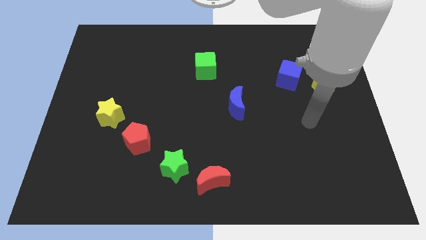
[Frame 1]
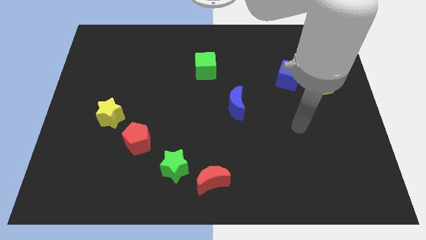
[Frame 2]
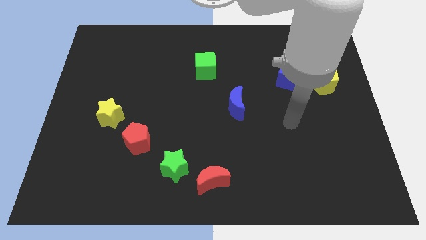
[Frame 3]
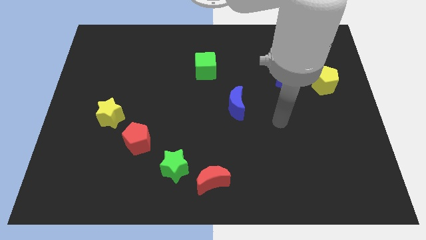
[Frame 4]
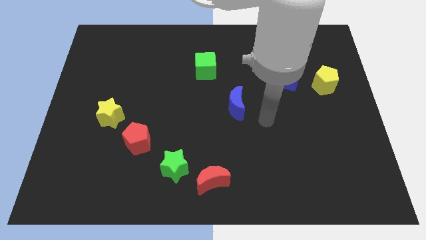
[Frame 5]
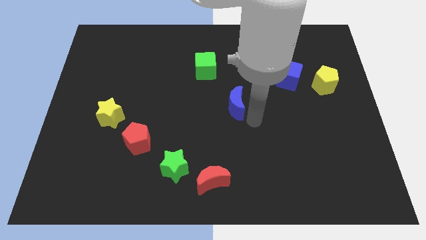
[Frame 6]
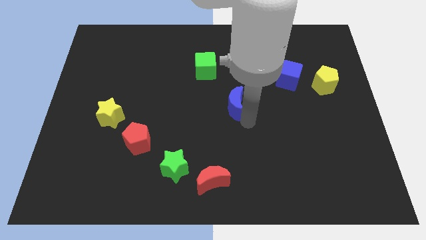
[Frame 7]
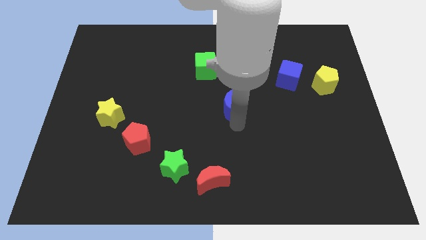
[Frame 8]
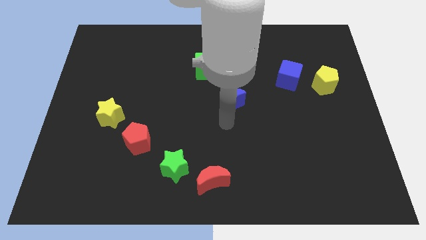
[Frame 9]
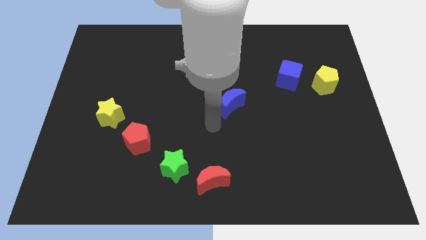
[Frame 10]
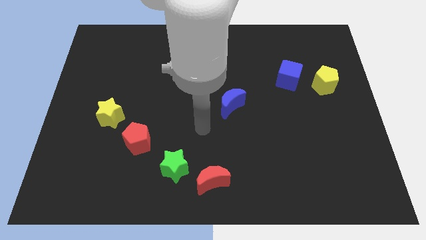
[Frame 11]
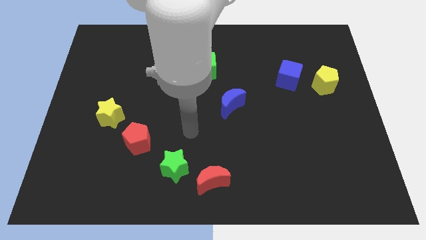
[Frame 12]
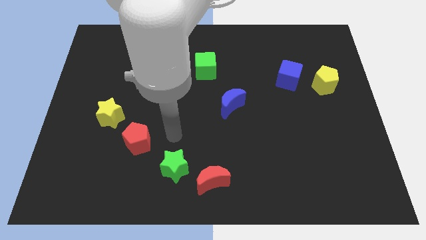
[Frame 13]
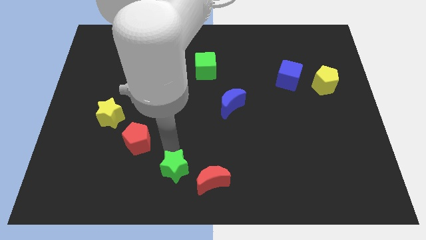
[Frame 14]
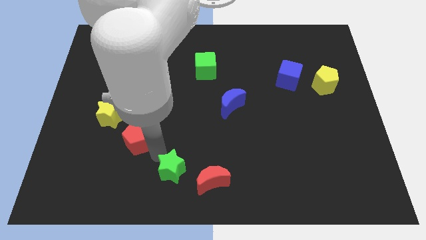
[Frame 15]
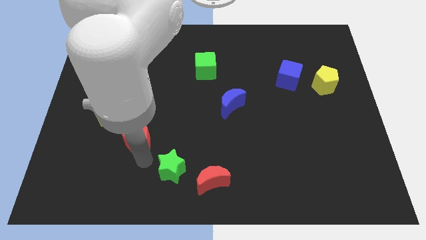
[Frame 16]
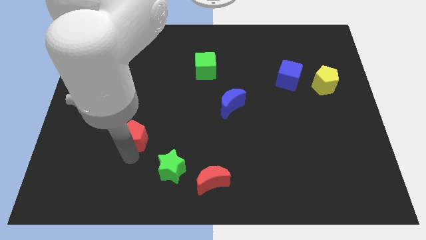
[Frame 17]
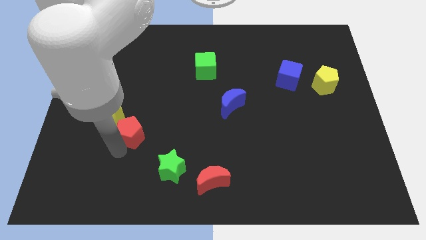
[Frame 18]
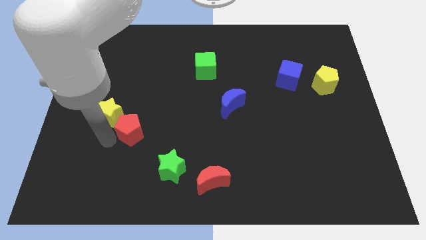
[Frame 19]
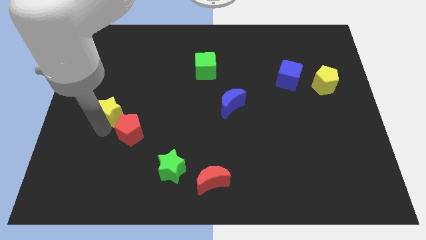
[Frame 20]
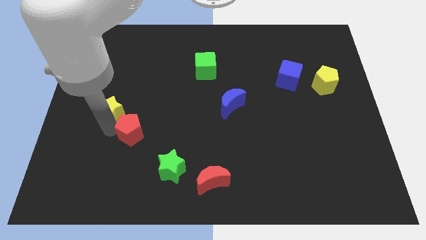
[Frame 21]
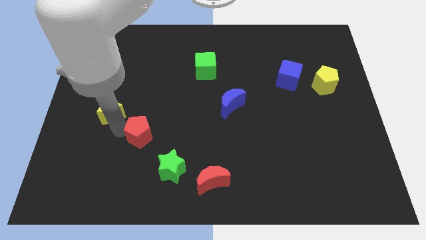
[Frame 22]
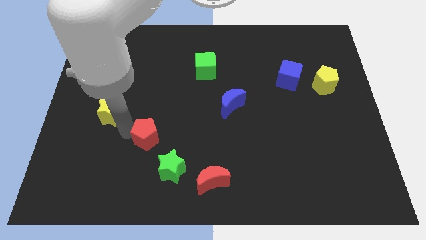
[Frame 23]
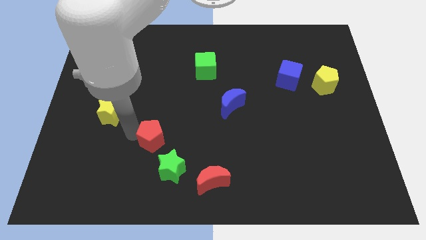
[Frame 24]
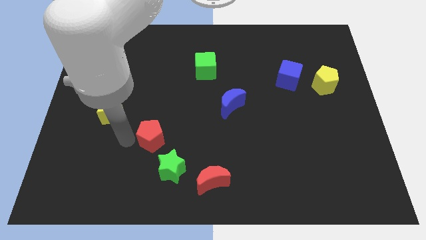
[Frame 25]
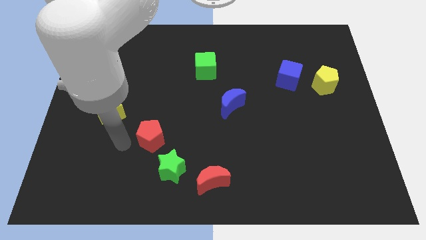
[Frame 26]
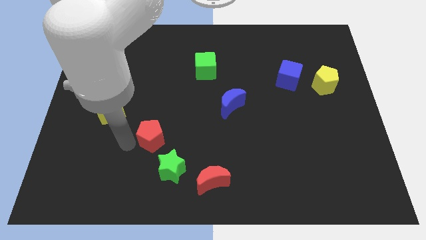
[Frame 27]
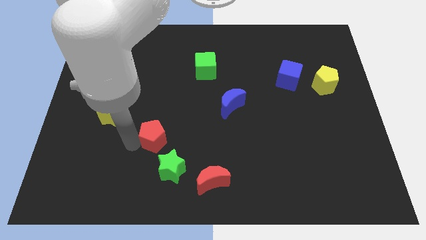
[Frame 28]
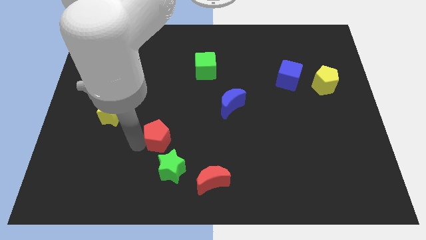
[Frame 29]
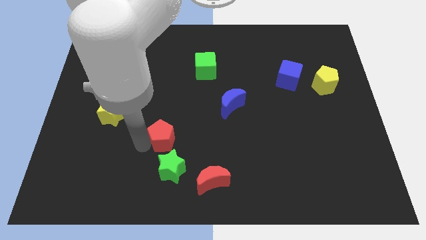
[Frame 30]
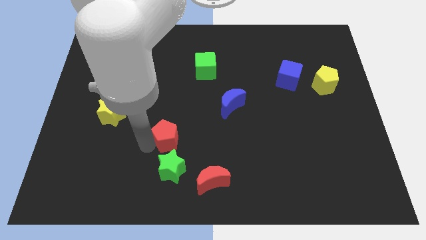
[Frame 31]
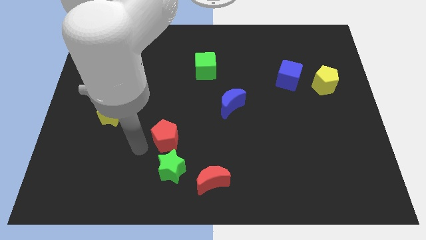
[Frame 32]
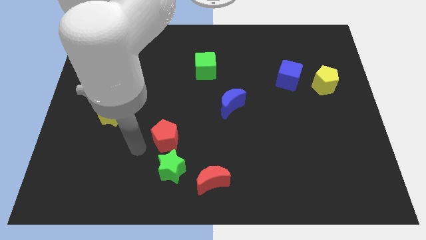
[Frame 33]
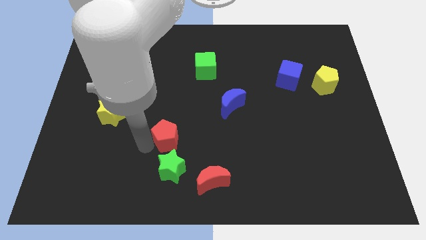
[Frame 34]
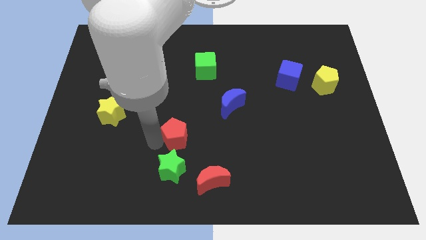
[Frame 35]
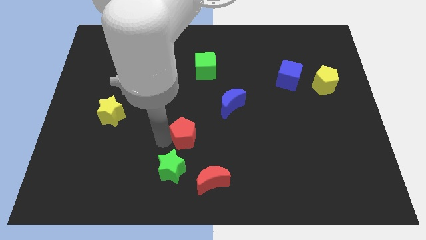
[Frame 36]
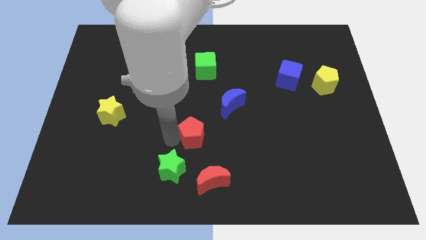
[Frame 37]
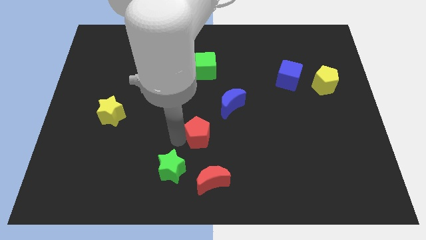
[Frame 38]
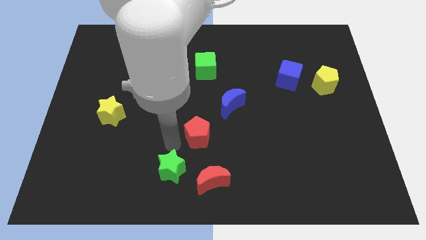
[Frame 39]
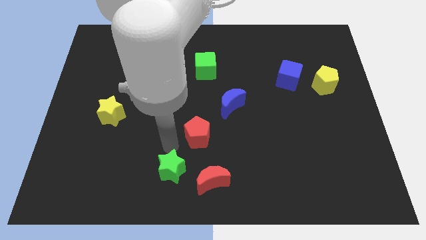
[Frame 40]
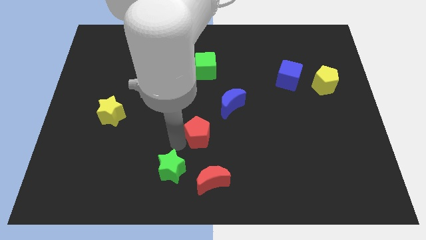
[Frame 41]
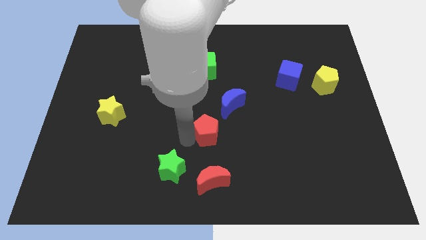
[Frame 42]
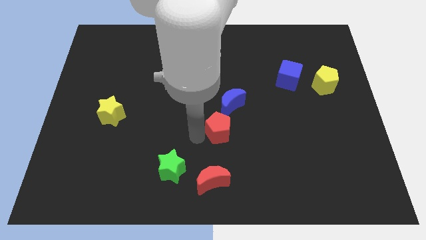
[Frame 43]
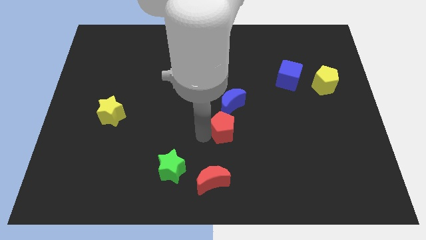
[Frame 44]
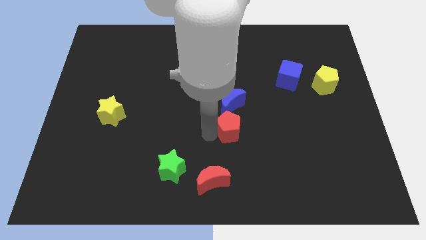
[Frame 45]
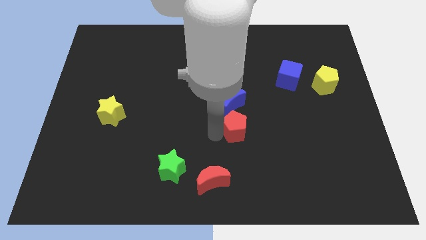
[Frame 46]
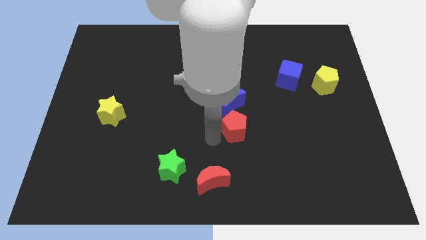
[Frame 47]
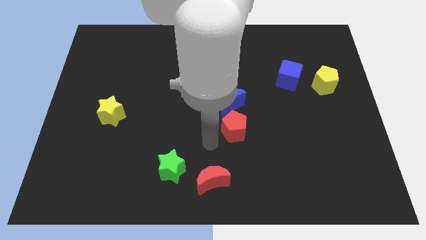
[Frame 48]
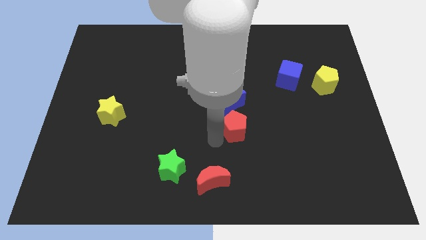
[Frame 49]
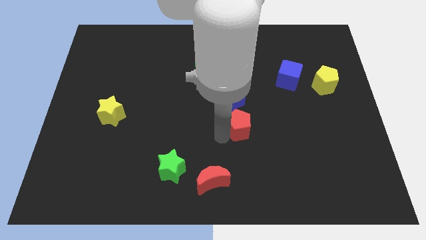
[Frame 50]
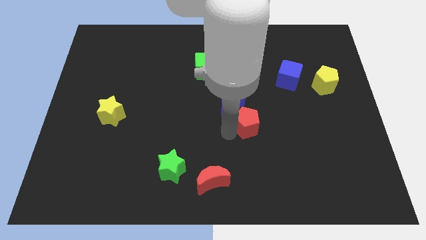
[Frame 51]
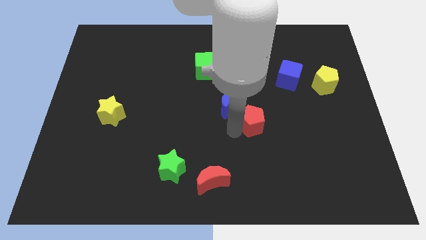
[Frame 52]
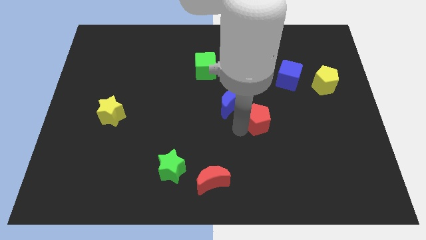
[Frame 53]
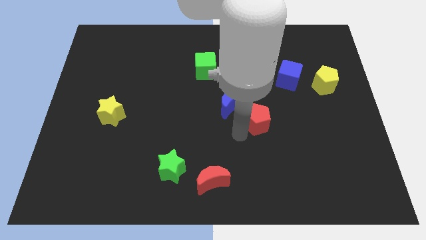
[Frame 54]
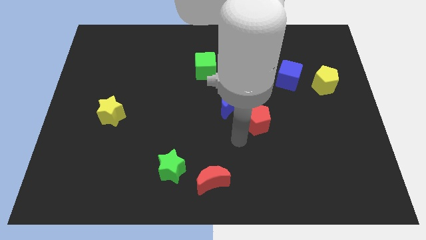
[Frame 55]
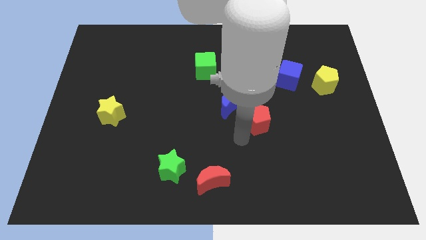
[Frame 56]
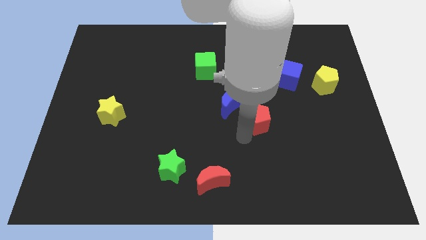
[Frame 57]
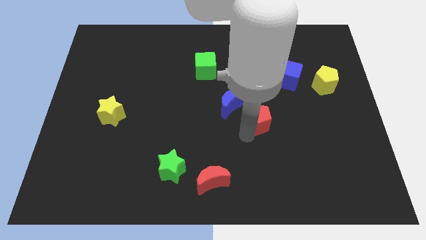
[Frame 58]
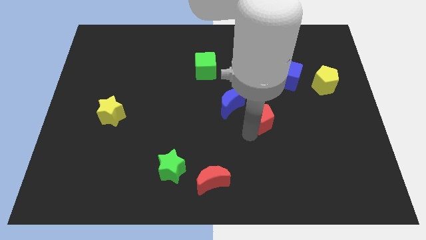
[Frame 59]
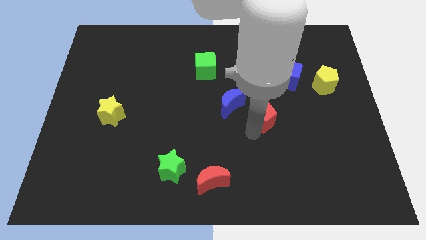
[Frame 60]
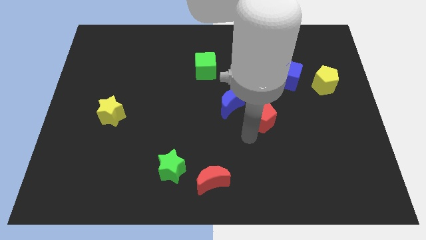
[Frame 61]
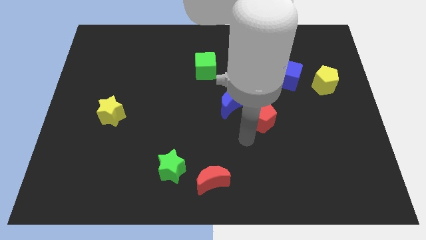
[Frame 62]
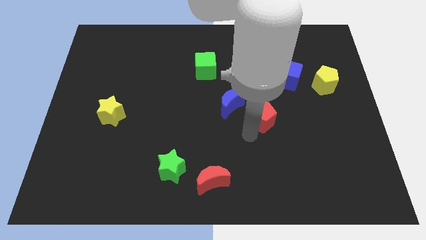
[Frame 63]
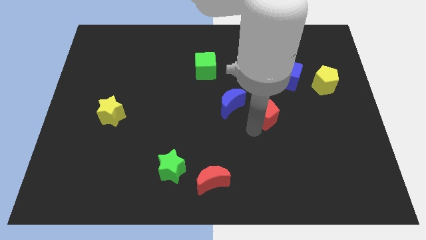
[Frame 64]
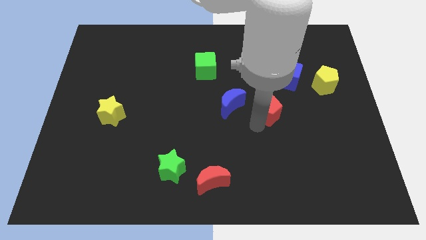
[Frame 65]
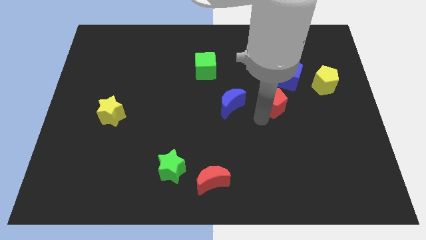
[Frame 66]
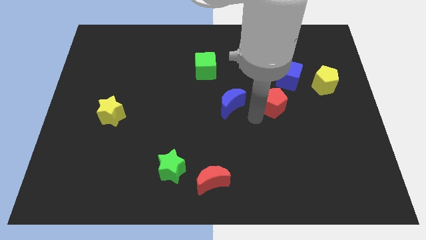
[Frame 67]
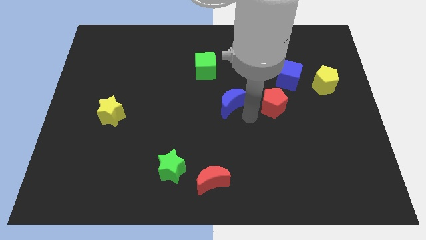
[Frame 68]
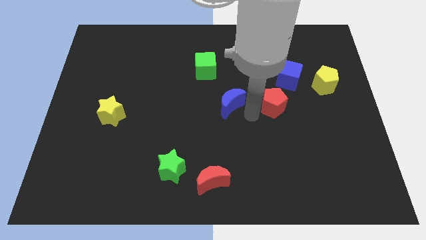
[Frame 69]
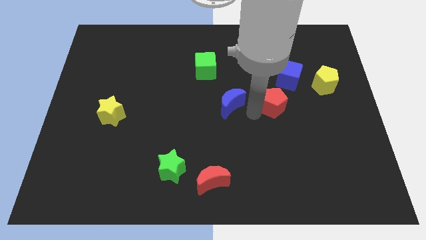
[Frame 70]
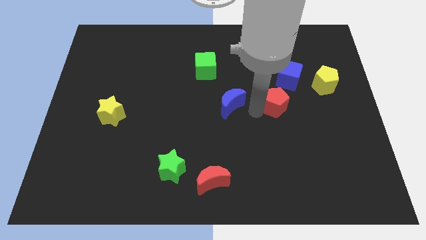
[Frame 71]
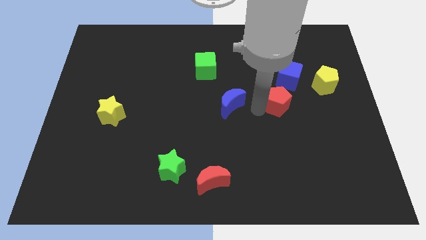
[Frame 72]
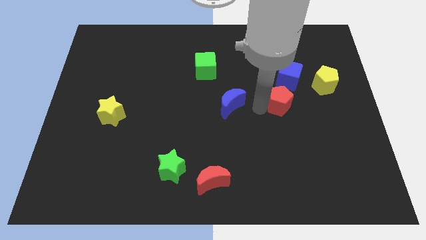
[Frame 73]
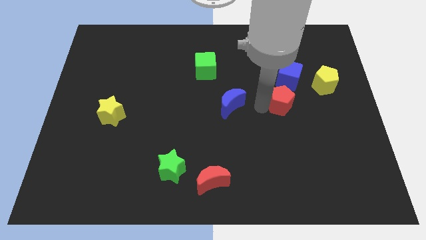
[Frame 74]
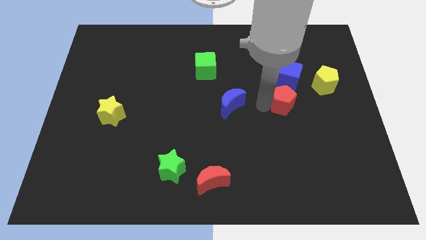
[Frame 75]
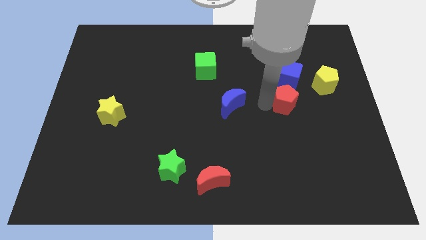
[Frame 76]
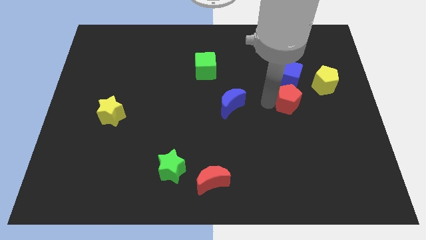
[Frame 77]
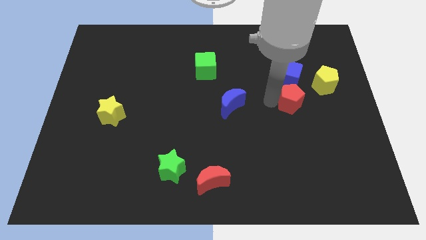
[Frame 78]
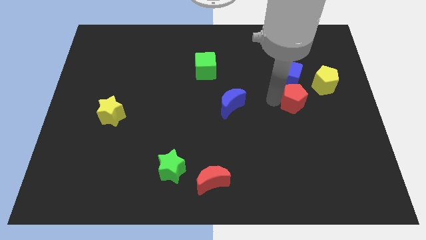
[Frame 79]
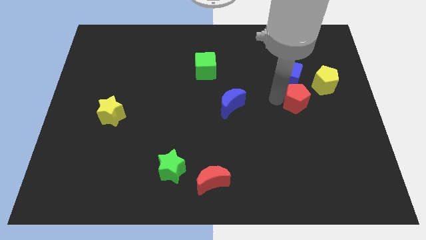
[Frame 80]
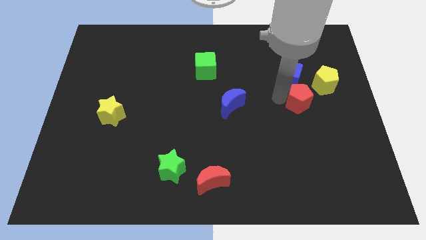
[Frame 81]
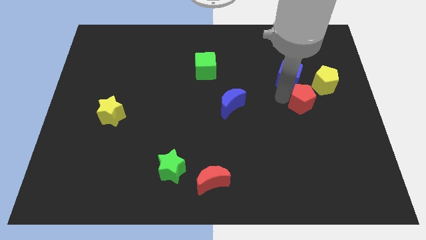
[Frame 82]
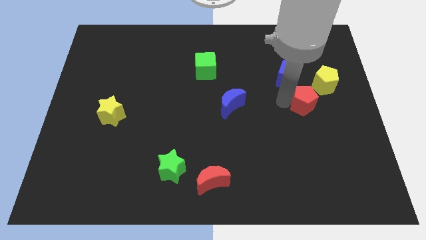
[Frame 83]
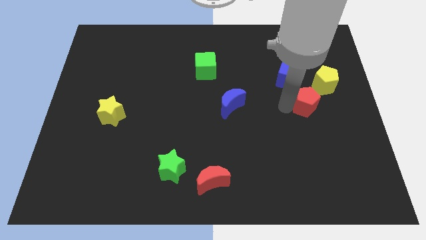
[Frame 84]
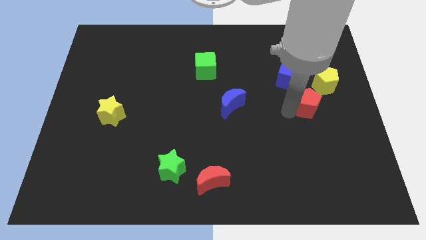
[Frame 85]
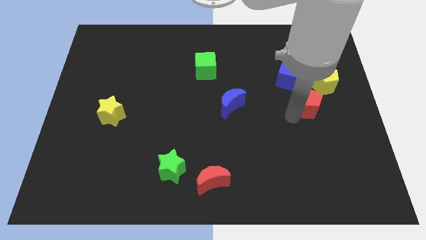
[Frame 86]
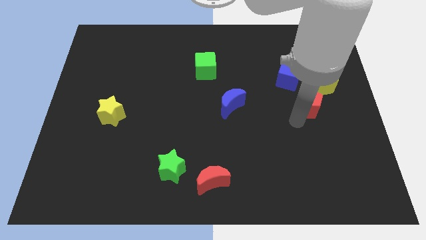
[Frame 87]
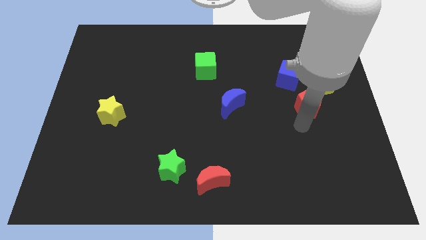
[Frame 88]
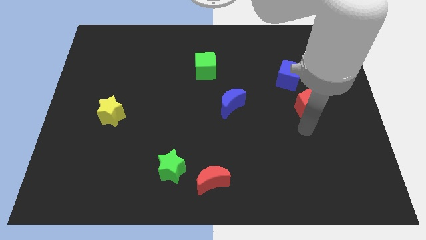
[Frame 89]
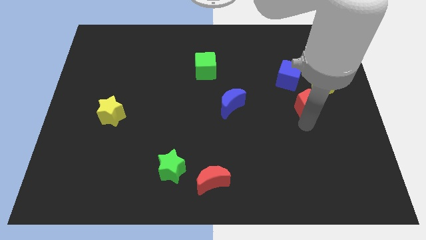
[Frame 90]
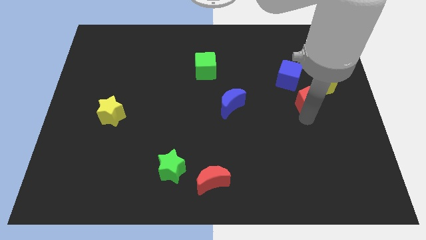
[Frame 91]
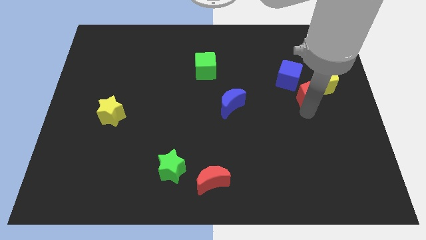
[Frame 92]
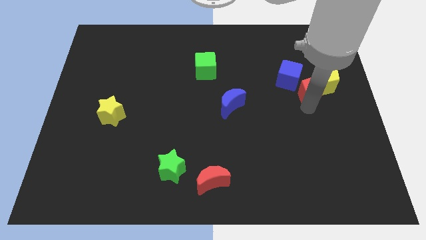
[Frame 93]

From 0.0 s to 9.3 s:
put the red pentagon next to the yellow pentagon
